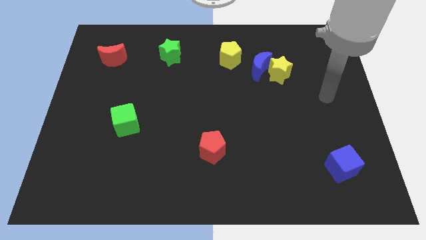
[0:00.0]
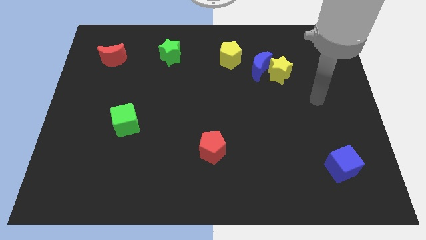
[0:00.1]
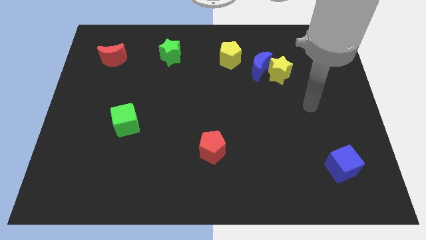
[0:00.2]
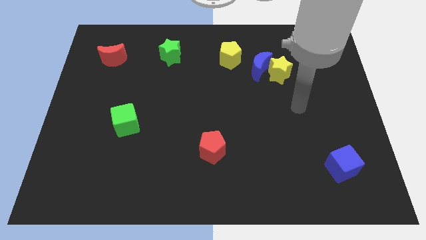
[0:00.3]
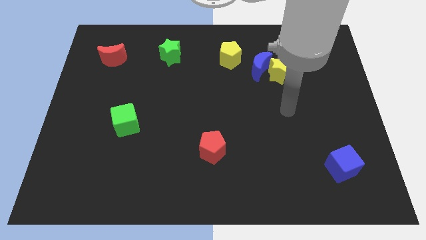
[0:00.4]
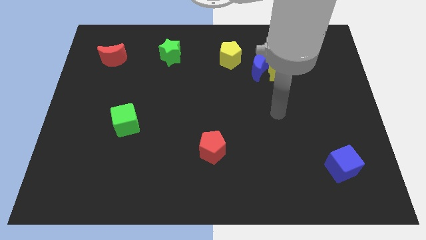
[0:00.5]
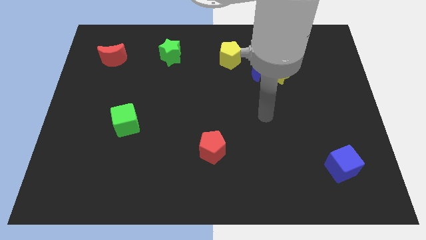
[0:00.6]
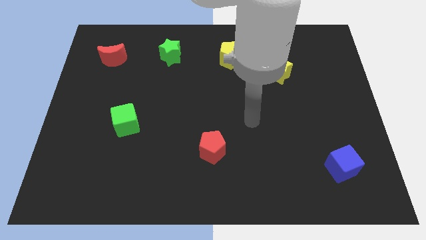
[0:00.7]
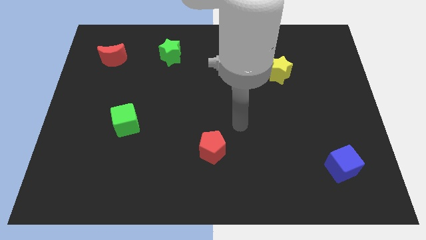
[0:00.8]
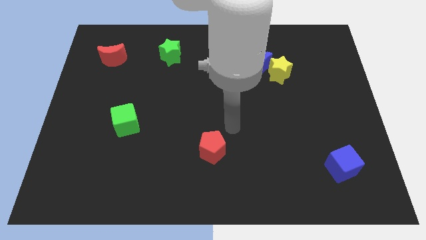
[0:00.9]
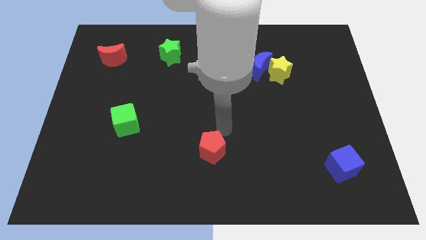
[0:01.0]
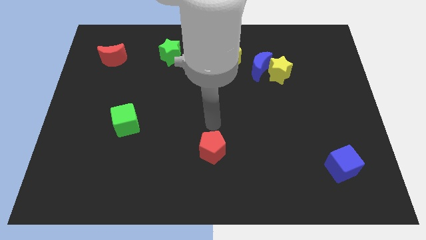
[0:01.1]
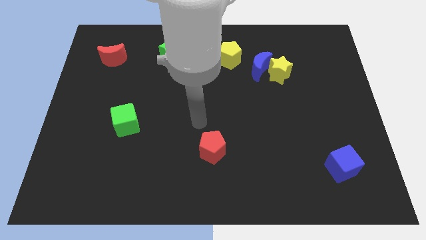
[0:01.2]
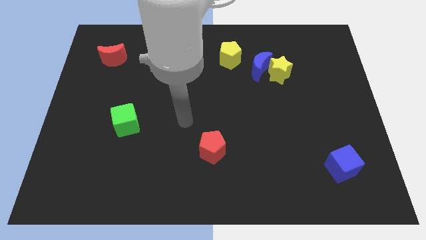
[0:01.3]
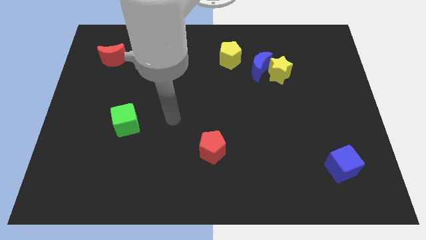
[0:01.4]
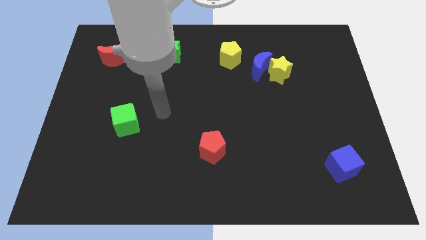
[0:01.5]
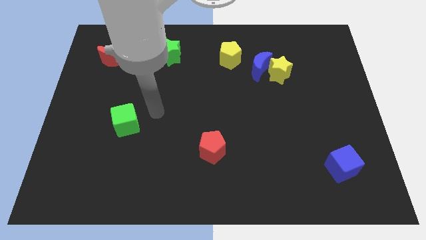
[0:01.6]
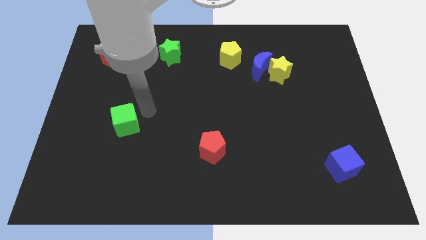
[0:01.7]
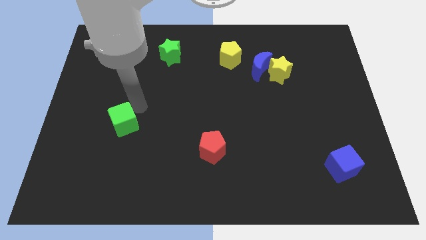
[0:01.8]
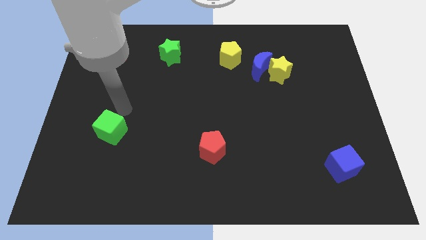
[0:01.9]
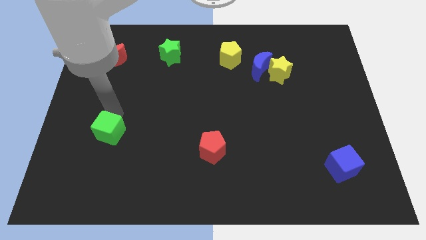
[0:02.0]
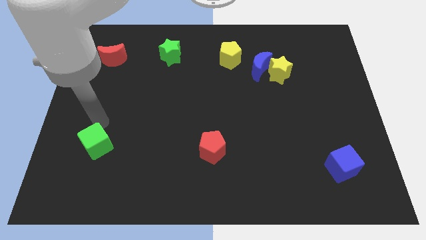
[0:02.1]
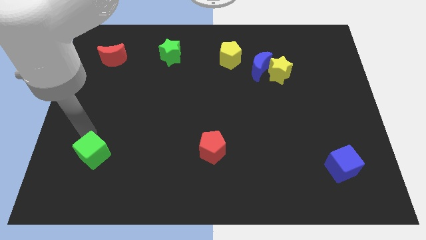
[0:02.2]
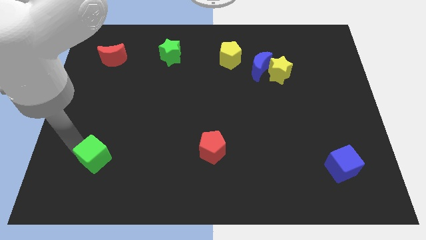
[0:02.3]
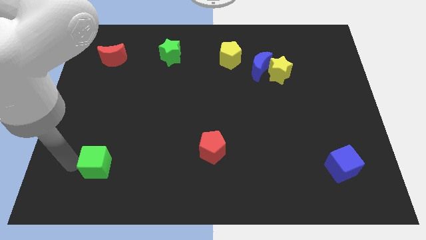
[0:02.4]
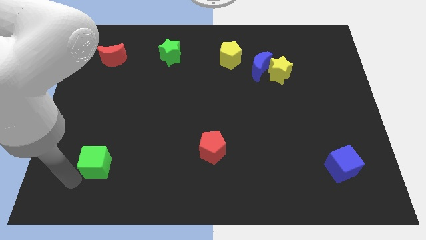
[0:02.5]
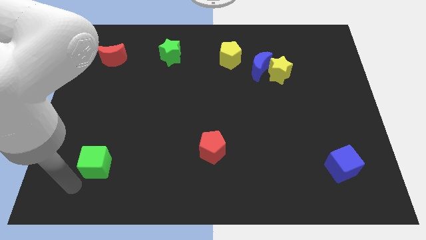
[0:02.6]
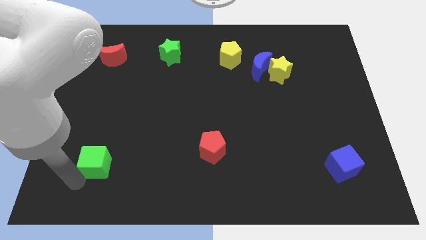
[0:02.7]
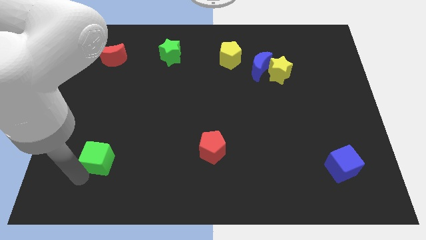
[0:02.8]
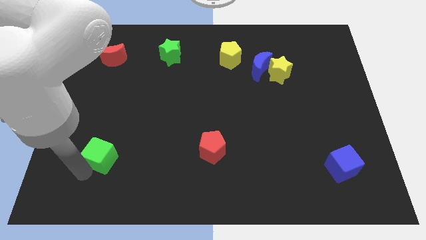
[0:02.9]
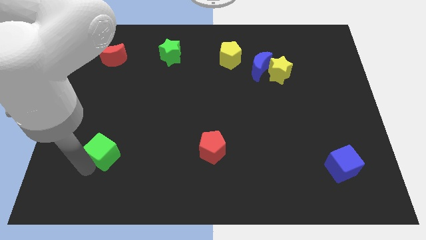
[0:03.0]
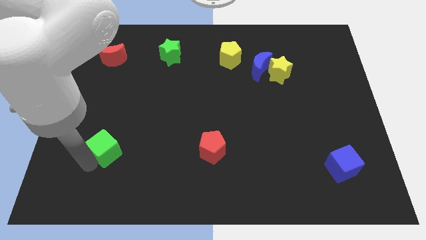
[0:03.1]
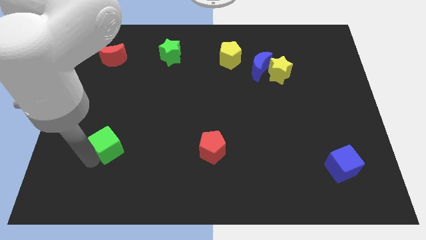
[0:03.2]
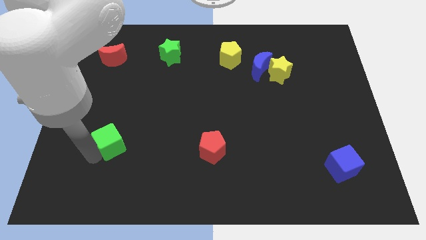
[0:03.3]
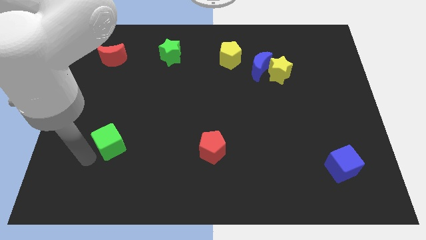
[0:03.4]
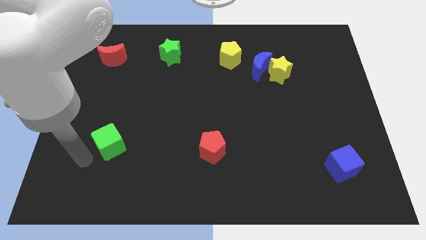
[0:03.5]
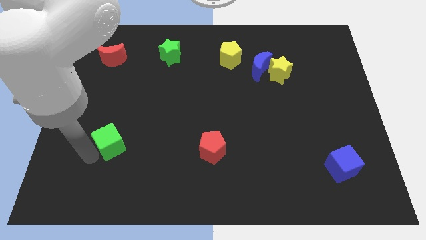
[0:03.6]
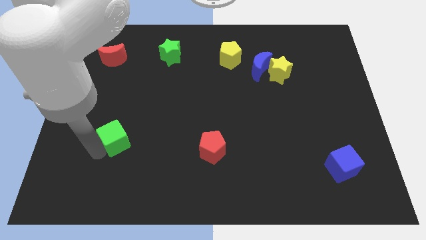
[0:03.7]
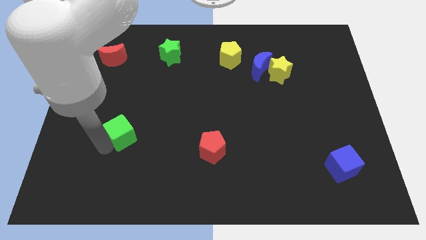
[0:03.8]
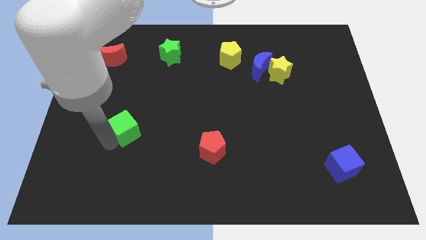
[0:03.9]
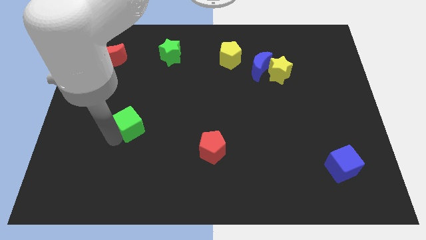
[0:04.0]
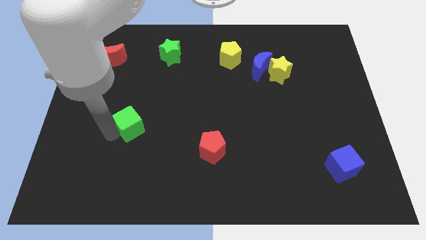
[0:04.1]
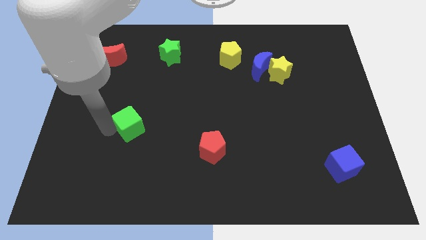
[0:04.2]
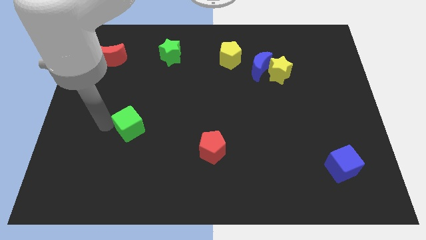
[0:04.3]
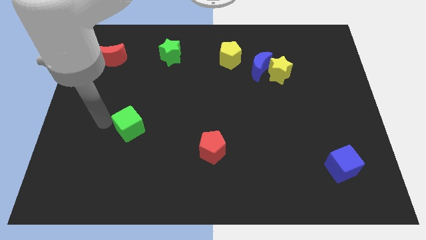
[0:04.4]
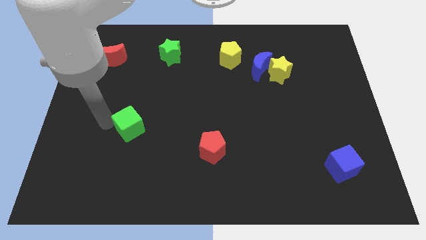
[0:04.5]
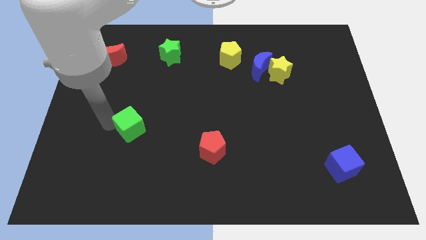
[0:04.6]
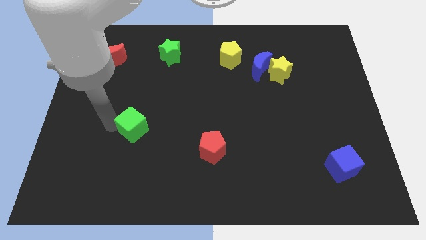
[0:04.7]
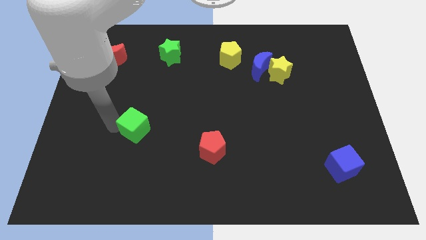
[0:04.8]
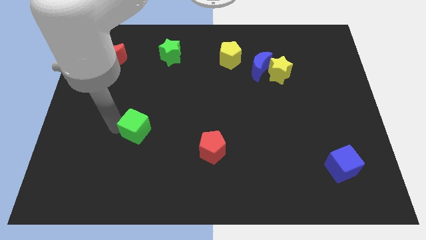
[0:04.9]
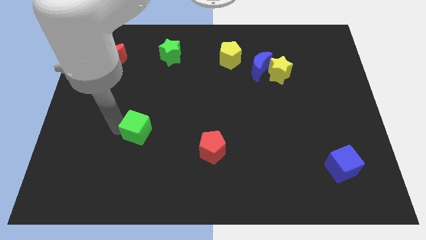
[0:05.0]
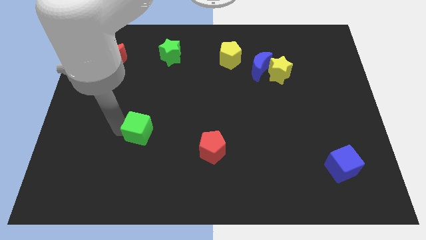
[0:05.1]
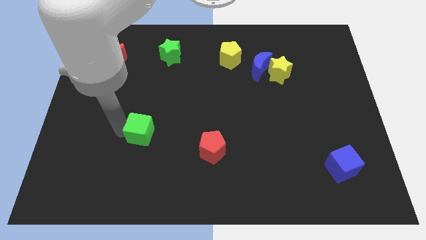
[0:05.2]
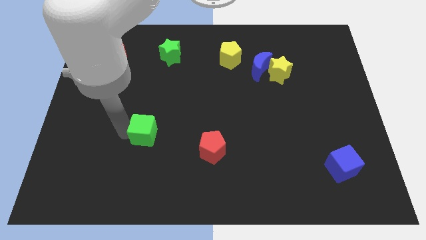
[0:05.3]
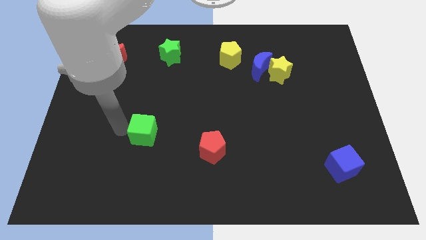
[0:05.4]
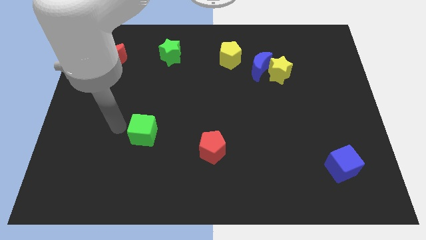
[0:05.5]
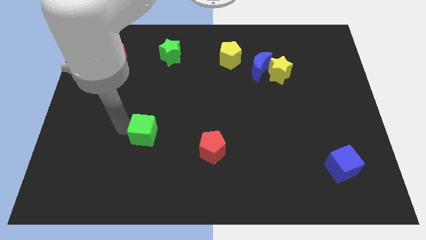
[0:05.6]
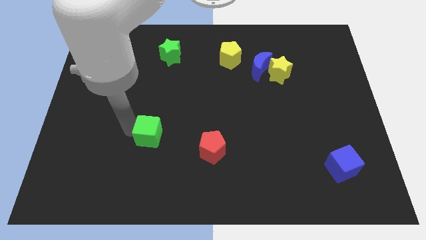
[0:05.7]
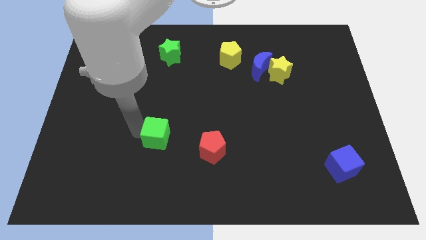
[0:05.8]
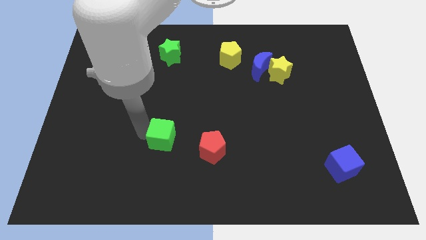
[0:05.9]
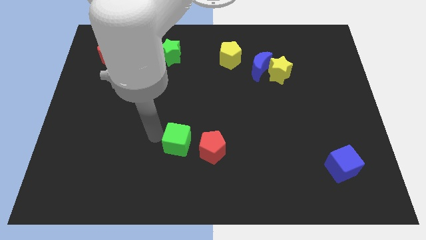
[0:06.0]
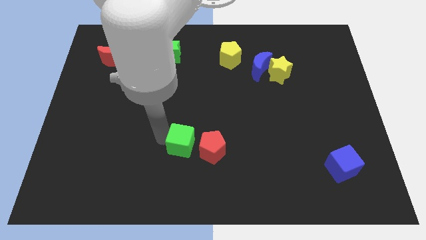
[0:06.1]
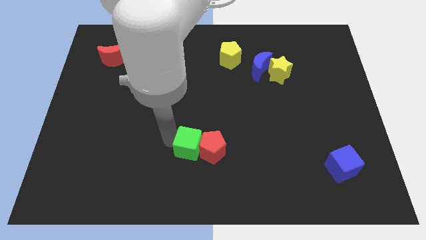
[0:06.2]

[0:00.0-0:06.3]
slide the green cube close to the red pentagon

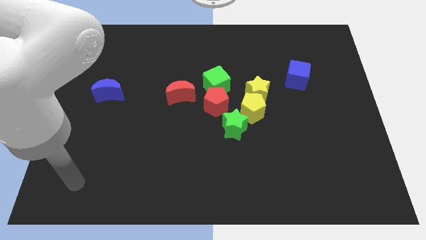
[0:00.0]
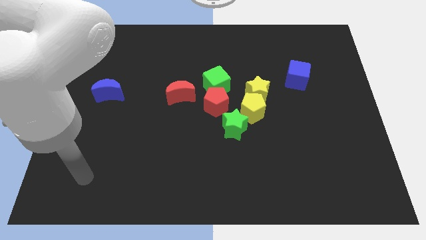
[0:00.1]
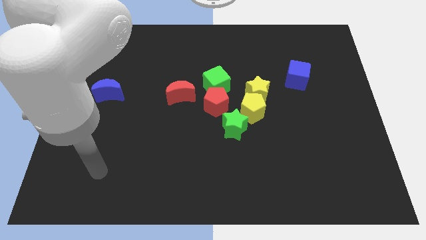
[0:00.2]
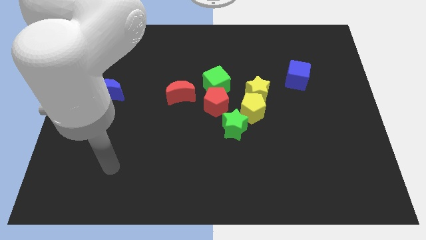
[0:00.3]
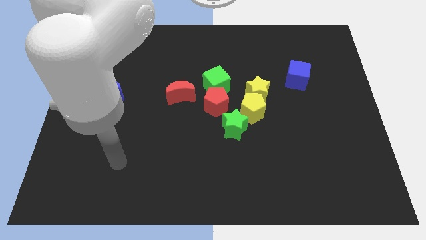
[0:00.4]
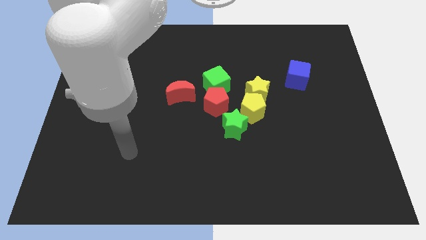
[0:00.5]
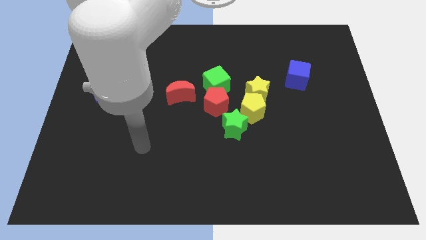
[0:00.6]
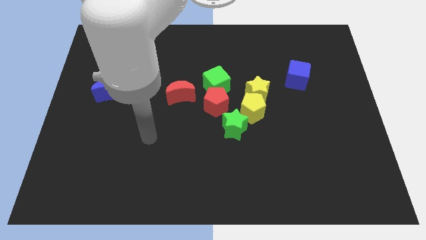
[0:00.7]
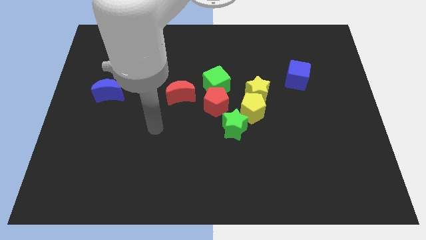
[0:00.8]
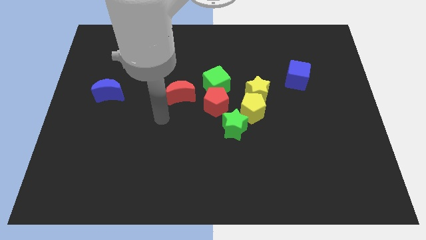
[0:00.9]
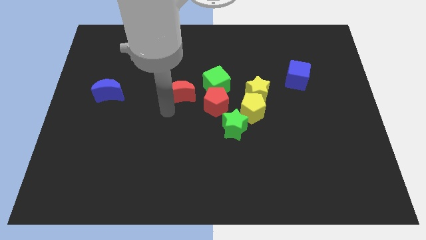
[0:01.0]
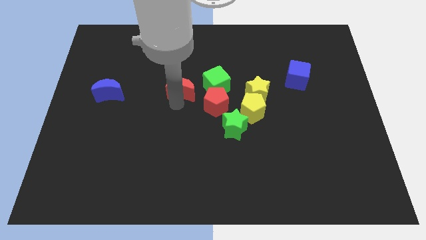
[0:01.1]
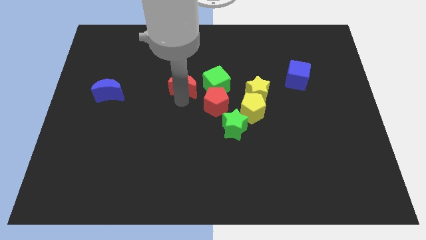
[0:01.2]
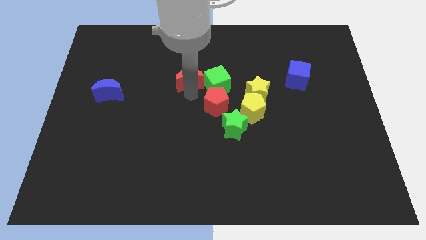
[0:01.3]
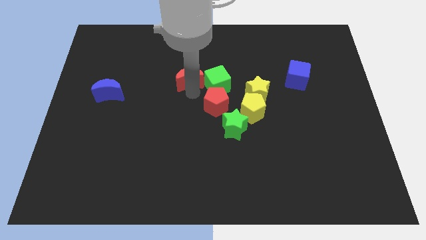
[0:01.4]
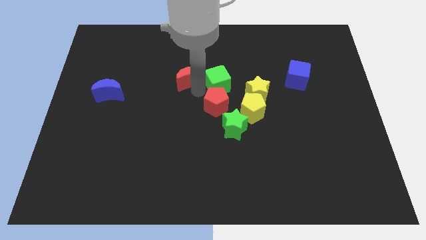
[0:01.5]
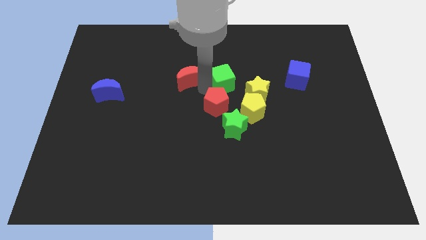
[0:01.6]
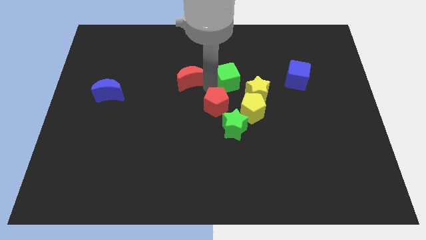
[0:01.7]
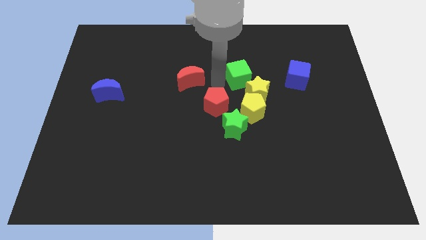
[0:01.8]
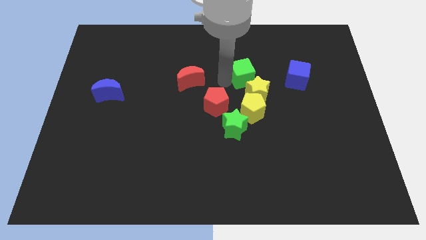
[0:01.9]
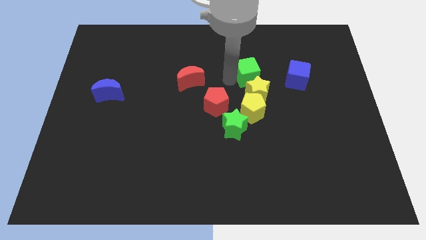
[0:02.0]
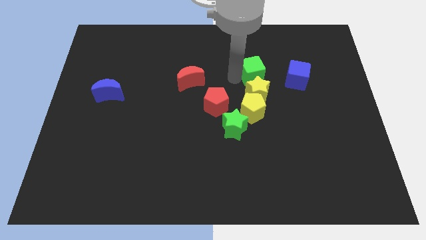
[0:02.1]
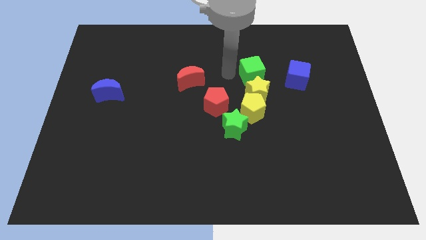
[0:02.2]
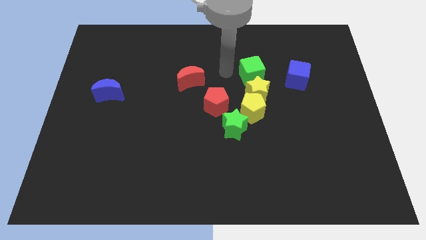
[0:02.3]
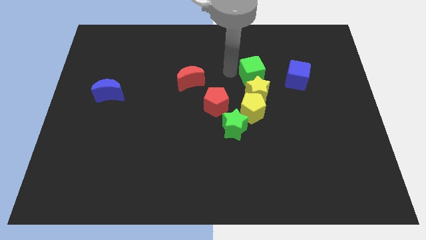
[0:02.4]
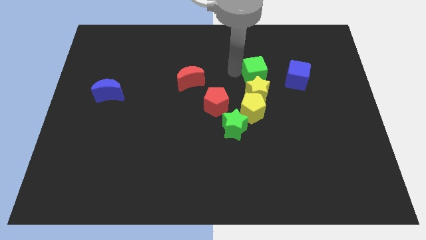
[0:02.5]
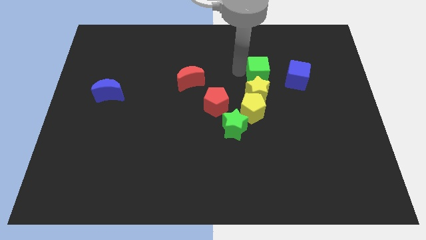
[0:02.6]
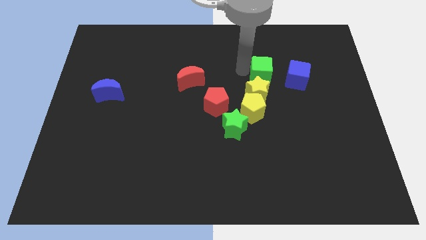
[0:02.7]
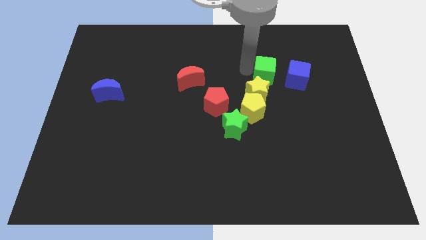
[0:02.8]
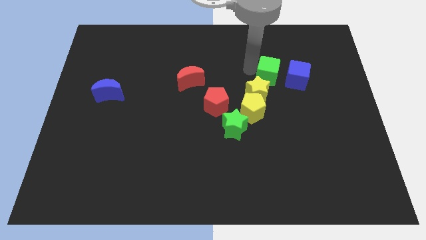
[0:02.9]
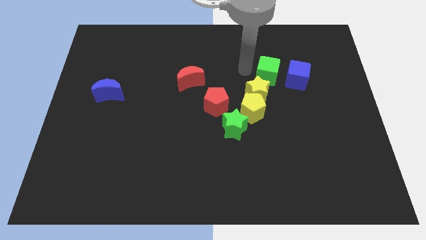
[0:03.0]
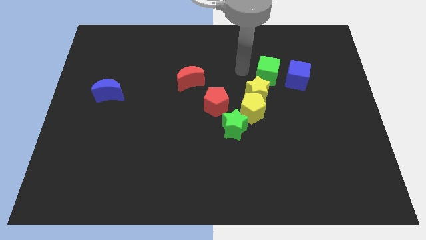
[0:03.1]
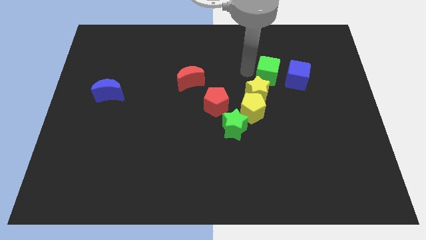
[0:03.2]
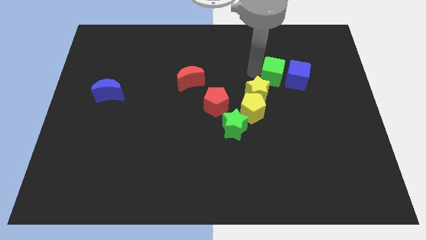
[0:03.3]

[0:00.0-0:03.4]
push the green cube close to the blue cube
